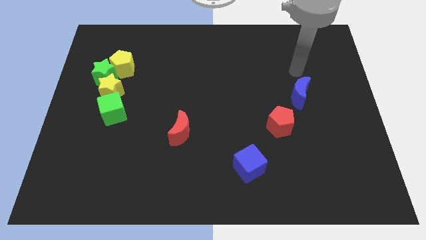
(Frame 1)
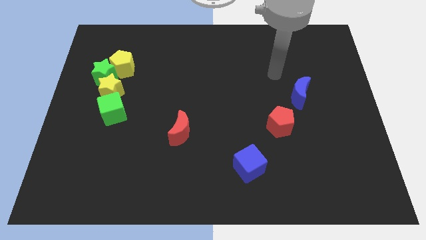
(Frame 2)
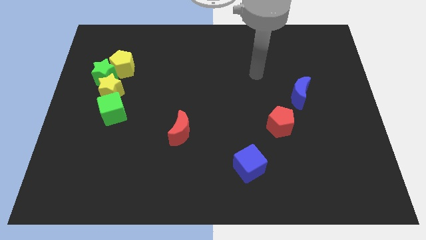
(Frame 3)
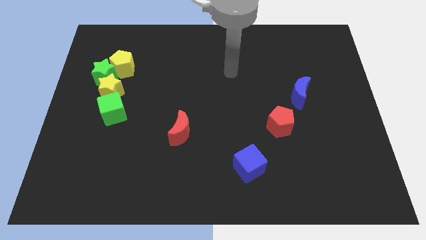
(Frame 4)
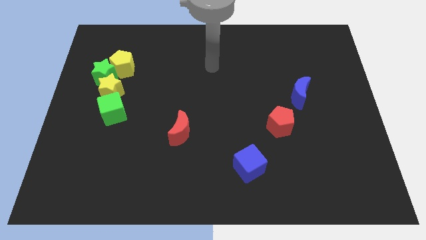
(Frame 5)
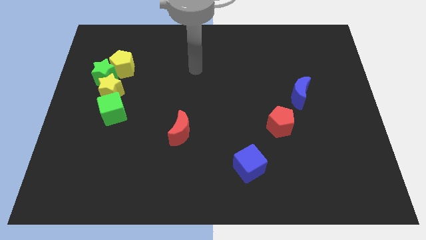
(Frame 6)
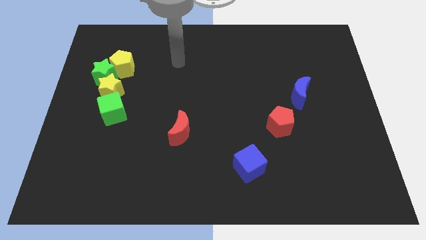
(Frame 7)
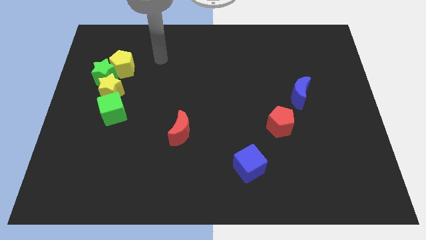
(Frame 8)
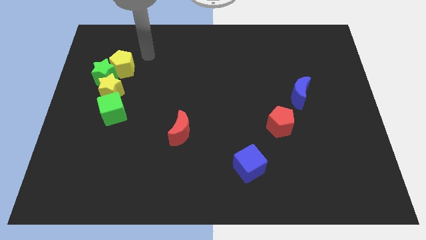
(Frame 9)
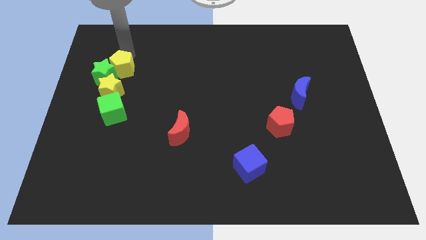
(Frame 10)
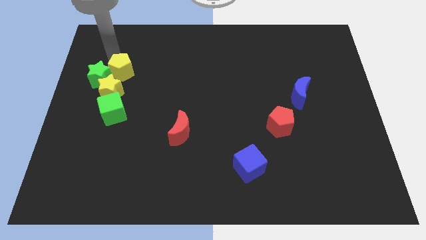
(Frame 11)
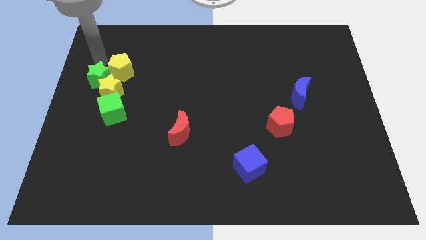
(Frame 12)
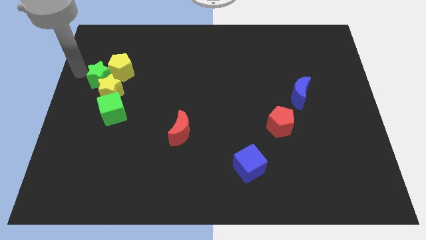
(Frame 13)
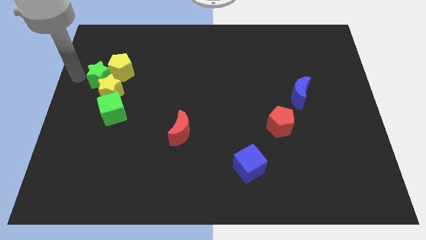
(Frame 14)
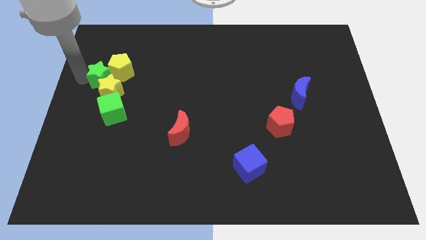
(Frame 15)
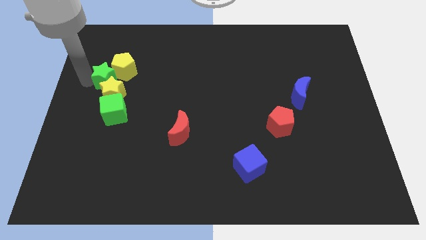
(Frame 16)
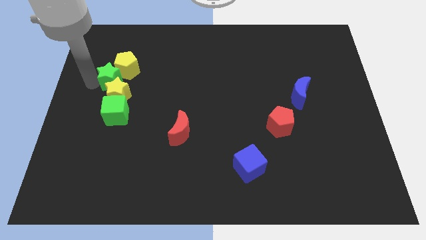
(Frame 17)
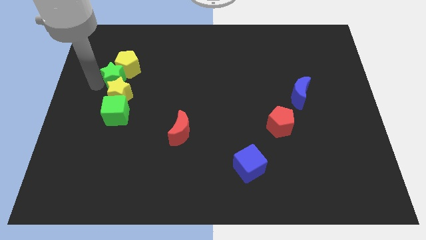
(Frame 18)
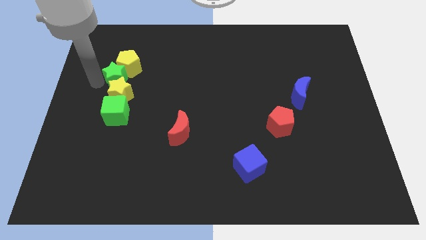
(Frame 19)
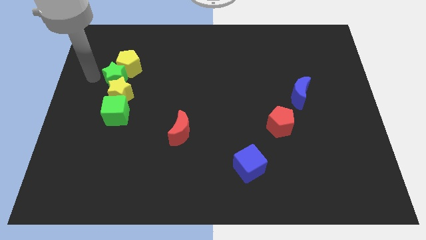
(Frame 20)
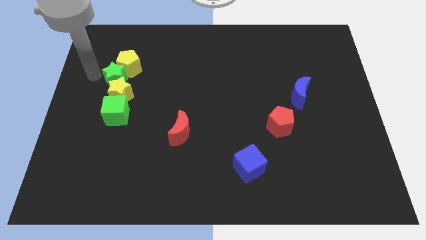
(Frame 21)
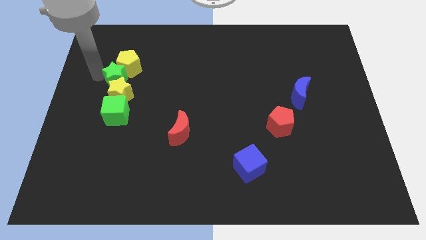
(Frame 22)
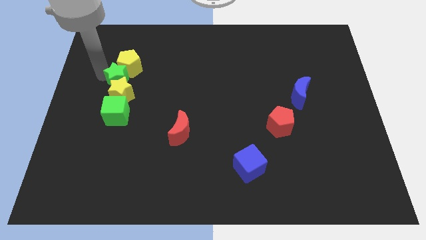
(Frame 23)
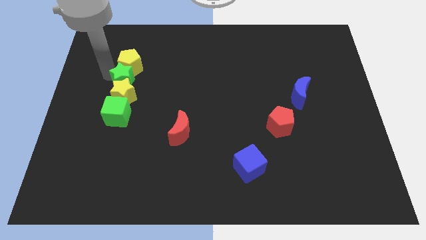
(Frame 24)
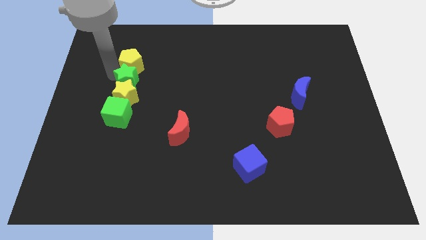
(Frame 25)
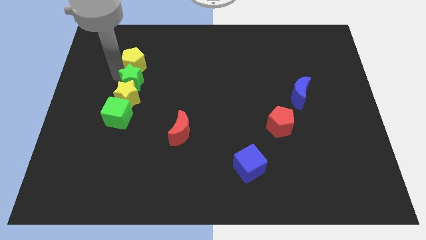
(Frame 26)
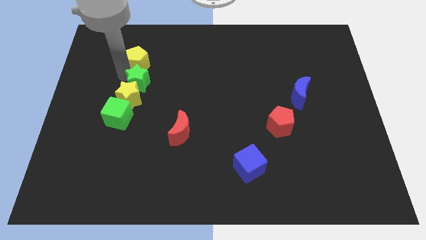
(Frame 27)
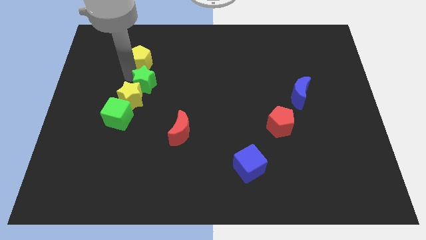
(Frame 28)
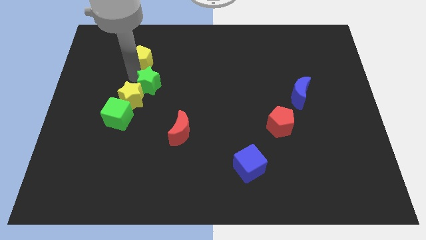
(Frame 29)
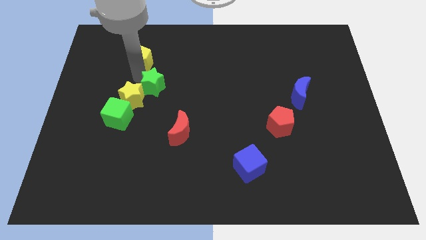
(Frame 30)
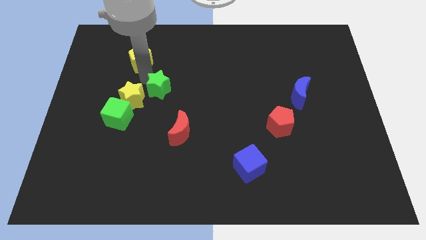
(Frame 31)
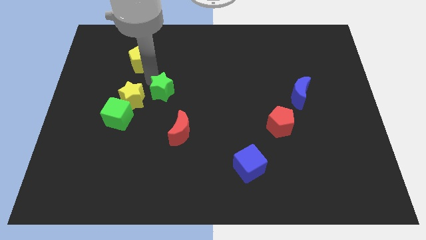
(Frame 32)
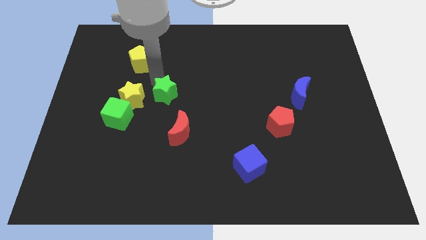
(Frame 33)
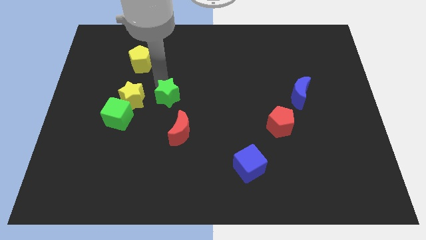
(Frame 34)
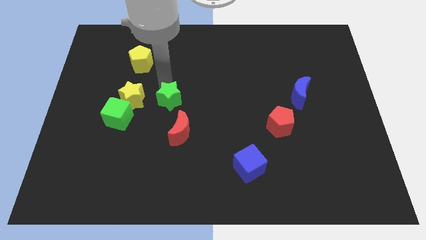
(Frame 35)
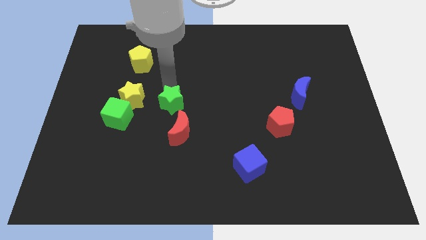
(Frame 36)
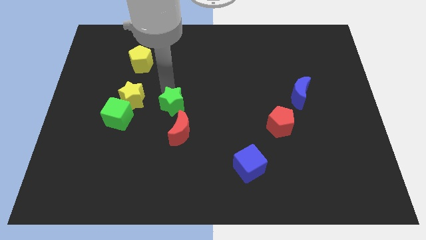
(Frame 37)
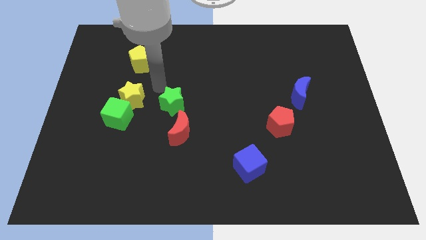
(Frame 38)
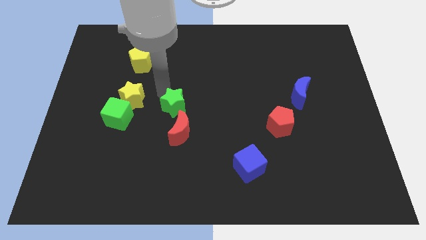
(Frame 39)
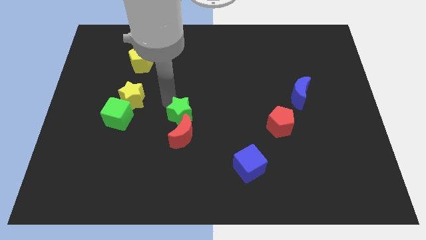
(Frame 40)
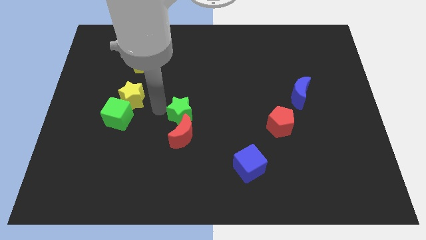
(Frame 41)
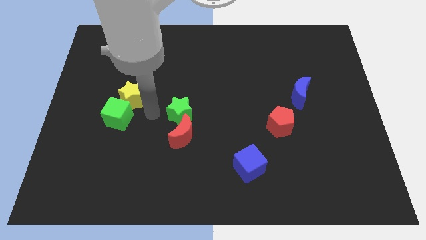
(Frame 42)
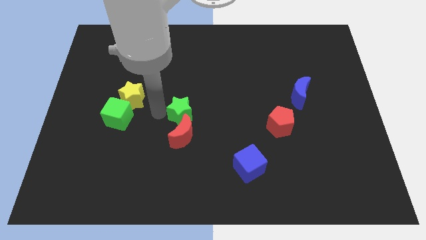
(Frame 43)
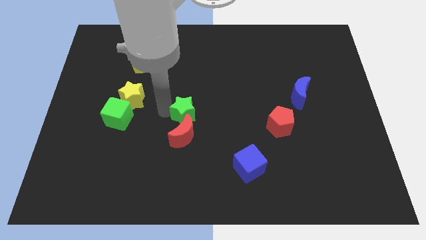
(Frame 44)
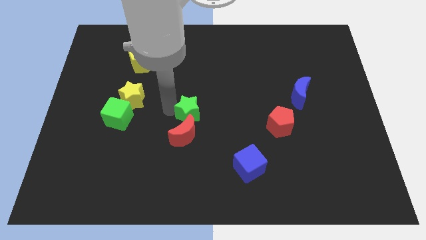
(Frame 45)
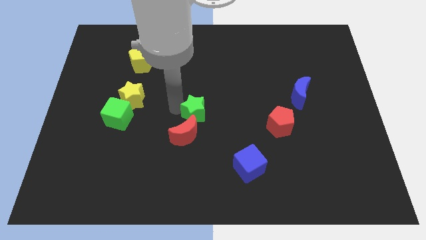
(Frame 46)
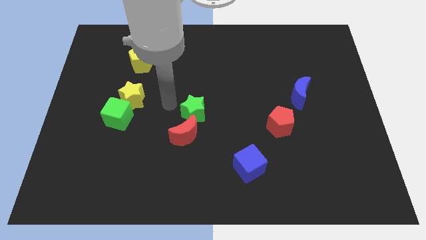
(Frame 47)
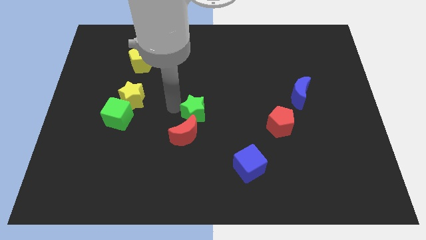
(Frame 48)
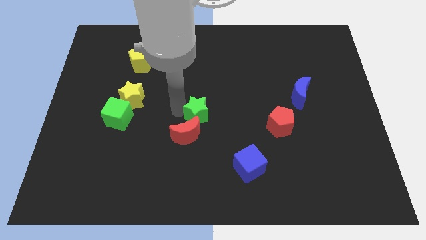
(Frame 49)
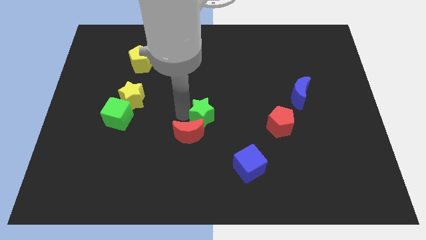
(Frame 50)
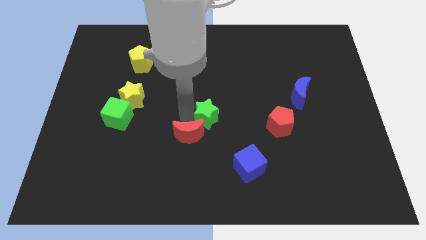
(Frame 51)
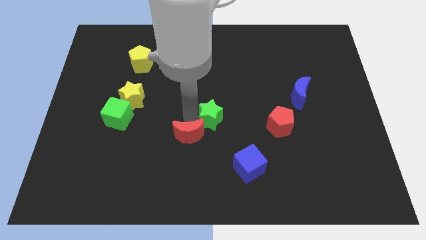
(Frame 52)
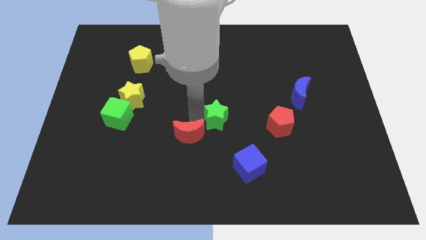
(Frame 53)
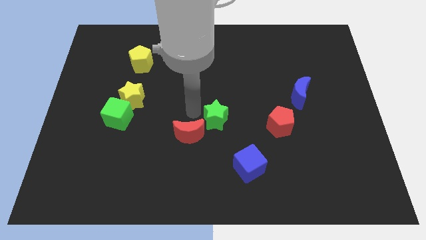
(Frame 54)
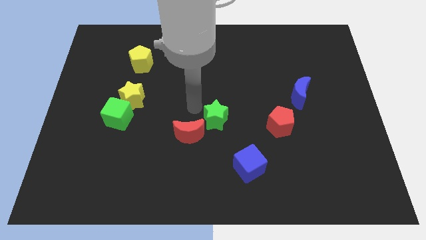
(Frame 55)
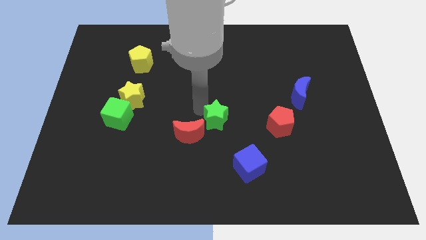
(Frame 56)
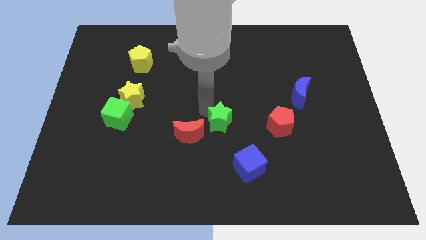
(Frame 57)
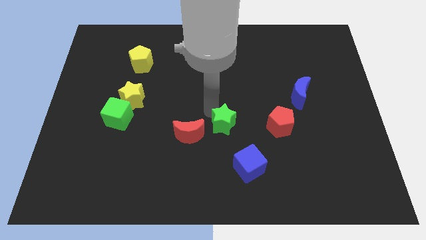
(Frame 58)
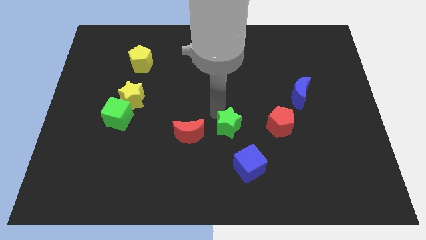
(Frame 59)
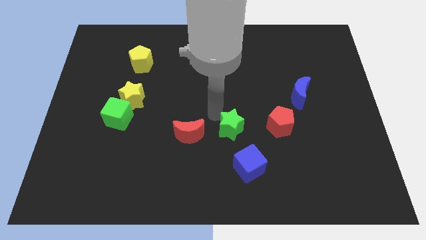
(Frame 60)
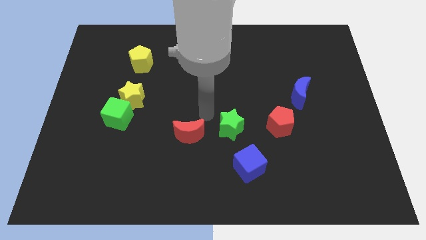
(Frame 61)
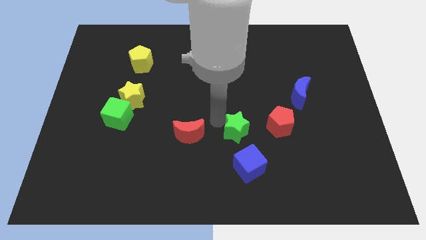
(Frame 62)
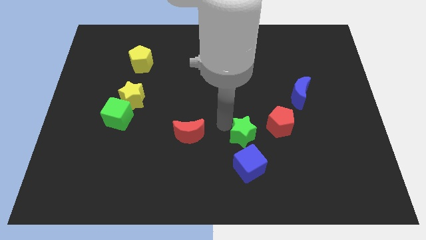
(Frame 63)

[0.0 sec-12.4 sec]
push the green star to the bottom left side of the red pentagon

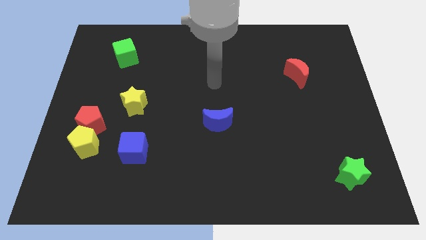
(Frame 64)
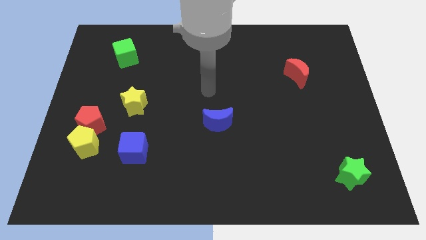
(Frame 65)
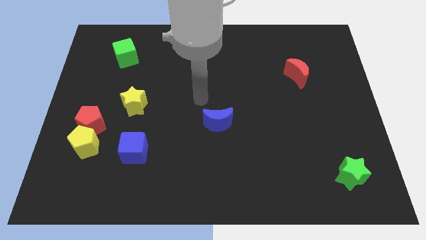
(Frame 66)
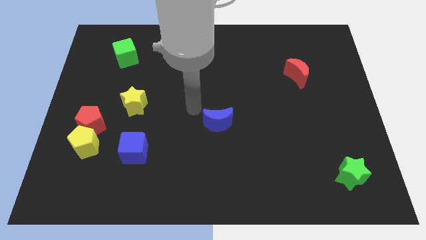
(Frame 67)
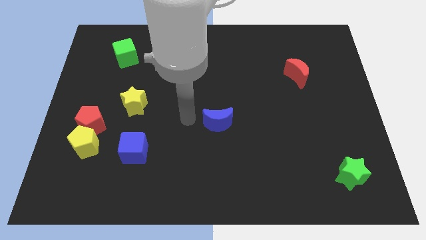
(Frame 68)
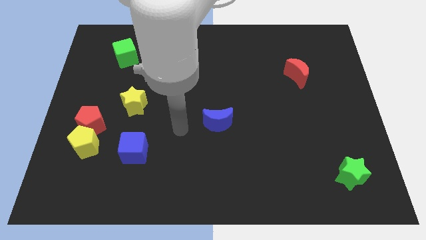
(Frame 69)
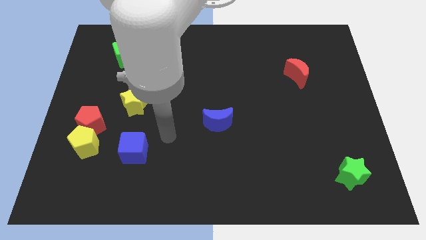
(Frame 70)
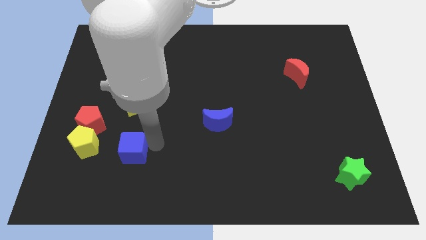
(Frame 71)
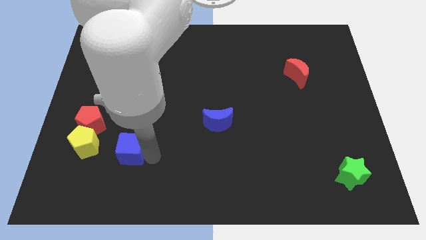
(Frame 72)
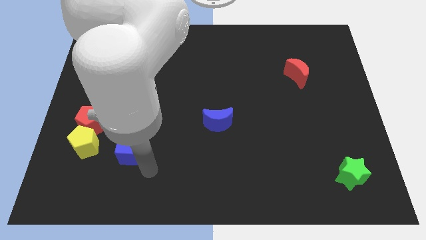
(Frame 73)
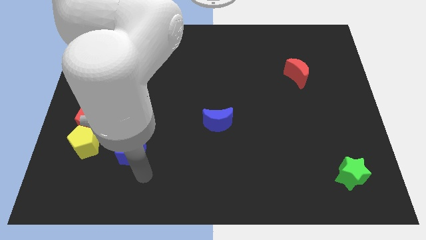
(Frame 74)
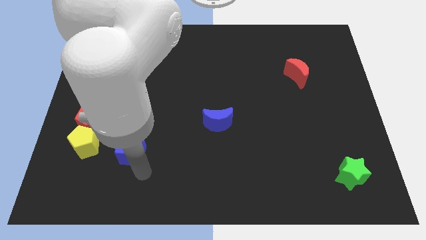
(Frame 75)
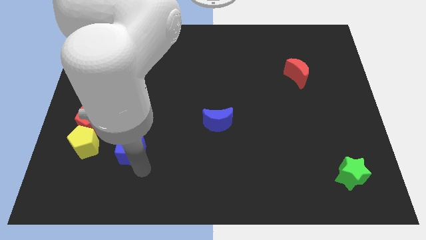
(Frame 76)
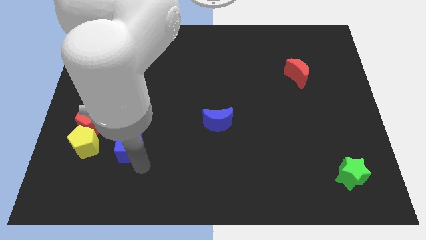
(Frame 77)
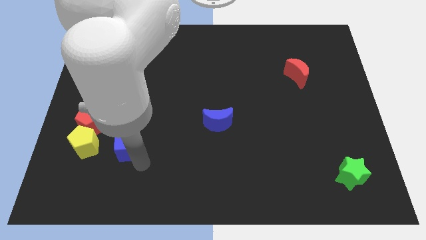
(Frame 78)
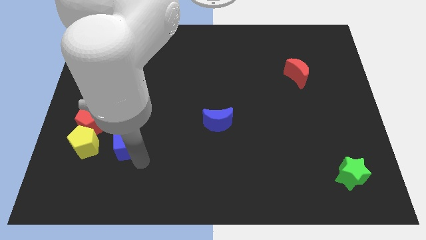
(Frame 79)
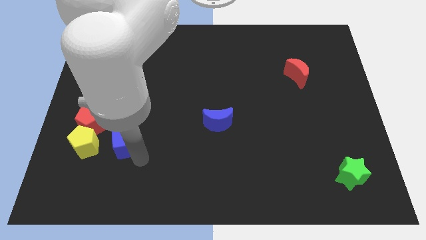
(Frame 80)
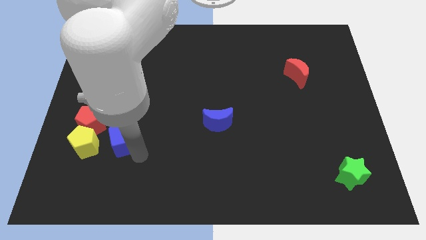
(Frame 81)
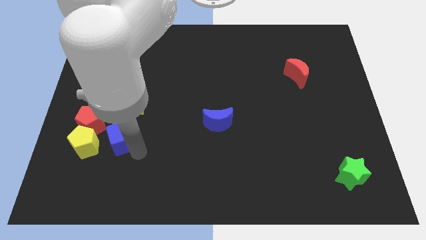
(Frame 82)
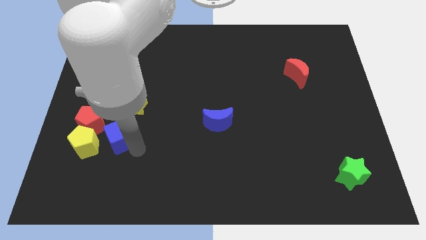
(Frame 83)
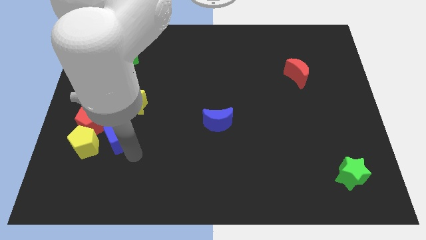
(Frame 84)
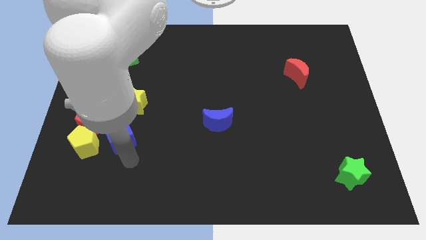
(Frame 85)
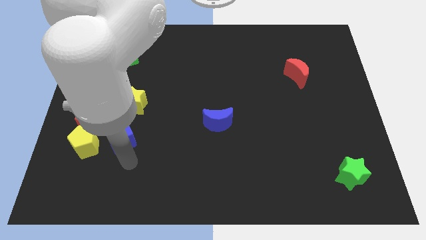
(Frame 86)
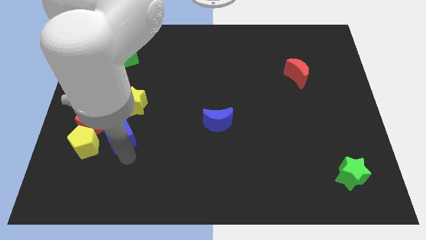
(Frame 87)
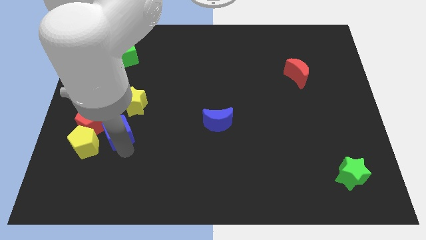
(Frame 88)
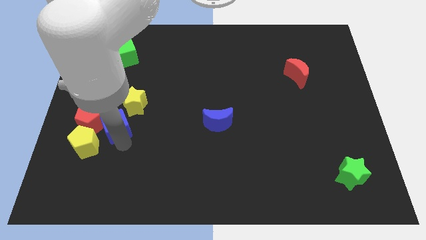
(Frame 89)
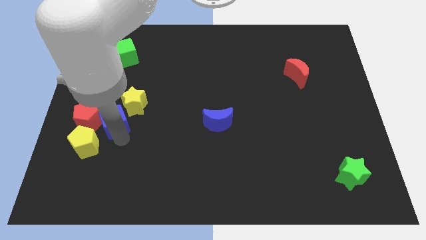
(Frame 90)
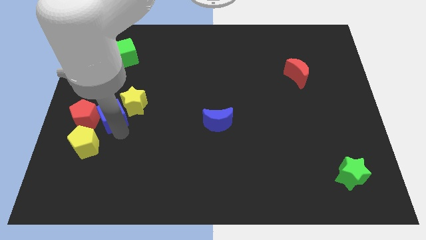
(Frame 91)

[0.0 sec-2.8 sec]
push the blue cube to the top side of the yellow pentagon
